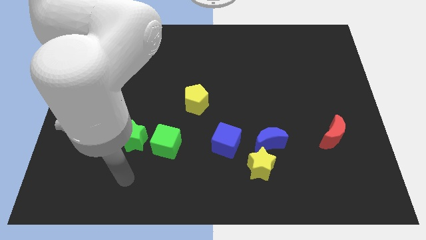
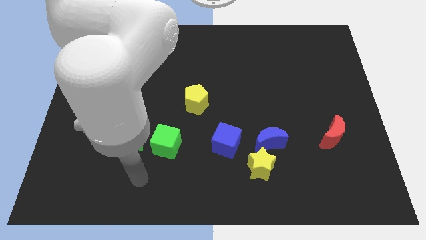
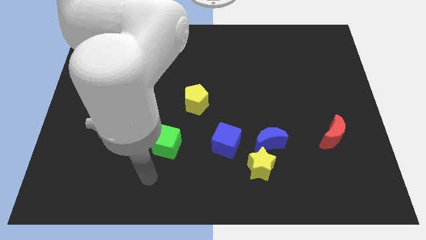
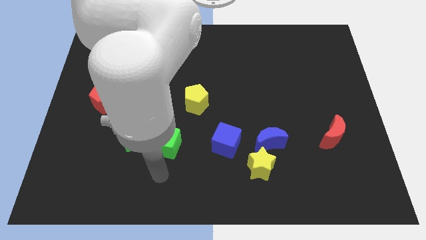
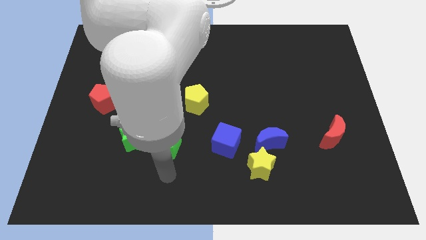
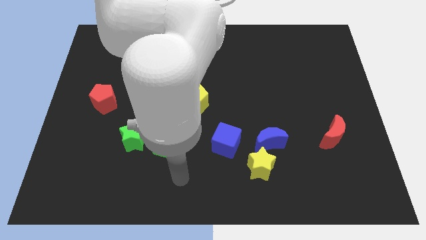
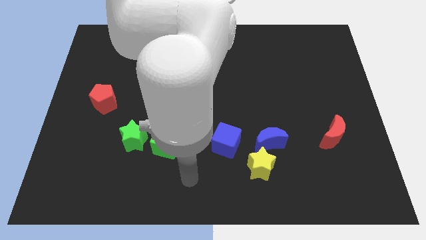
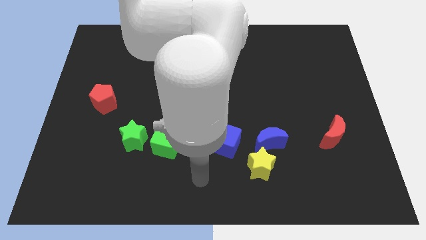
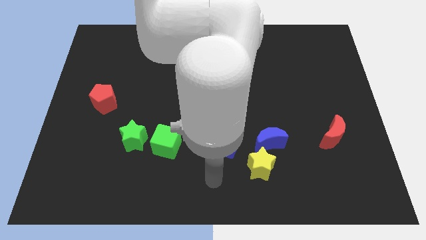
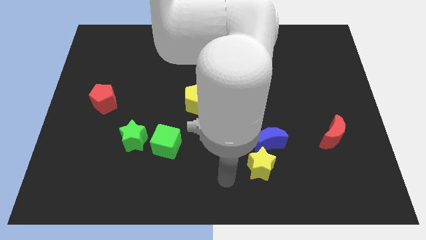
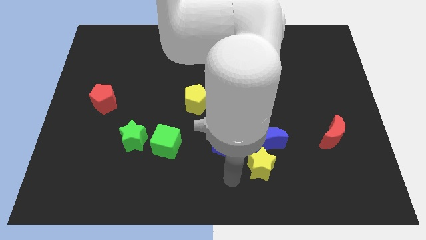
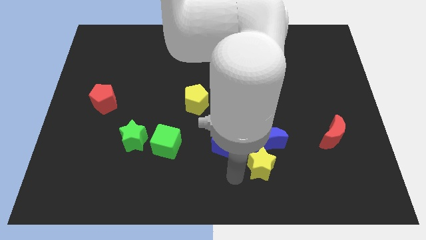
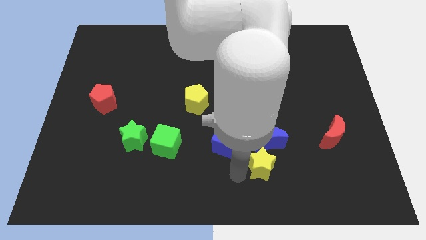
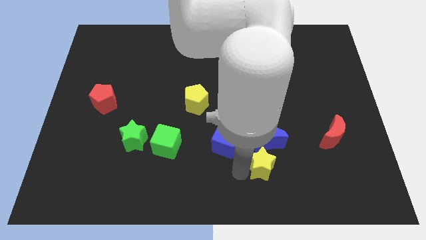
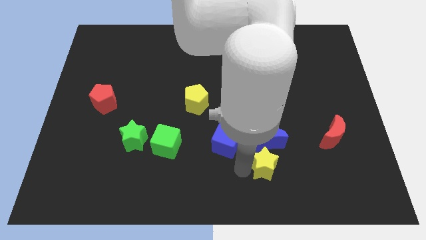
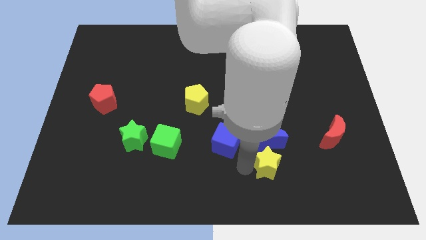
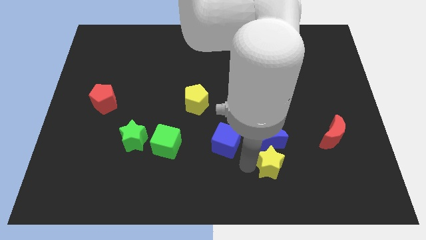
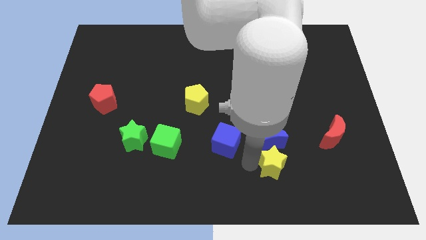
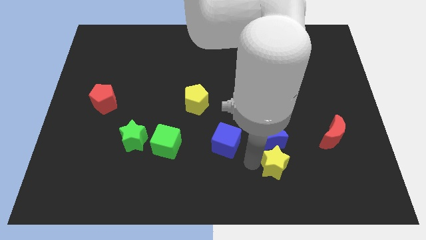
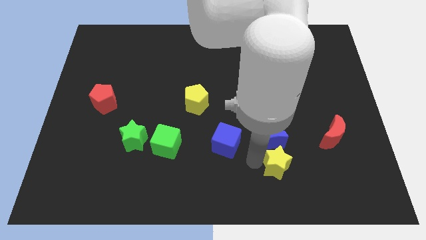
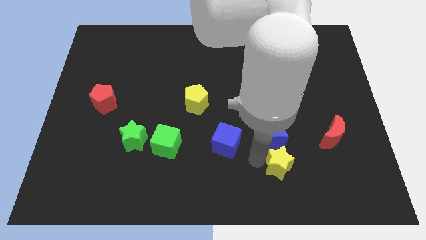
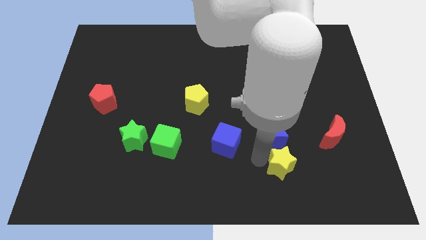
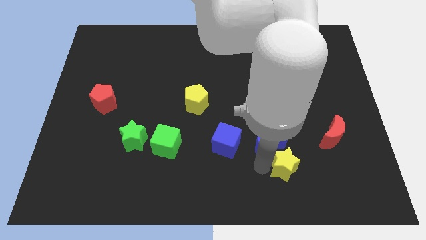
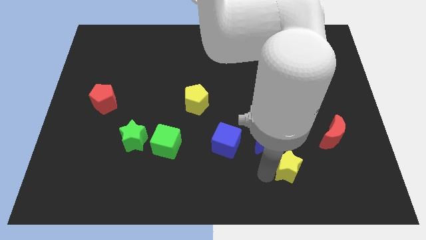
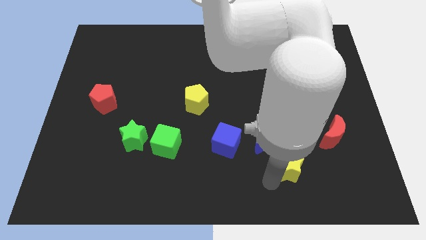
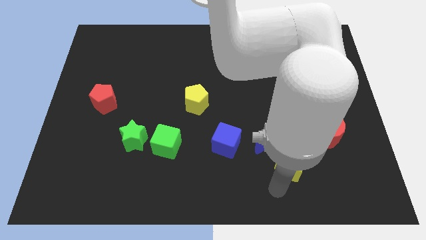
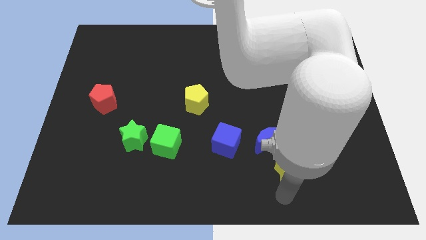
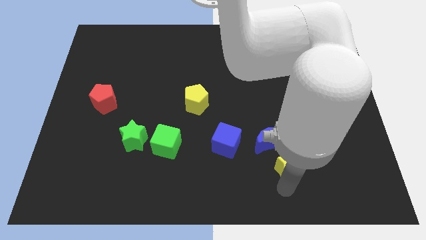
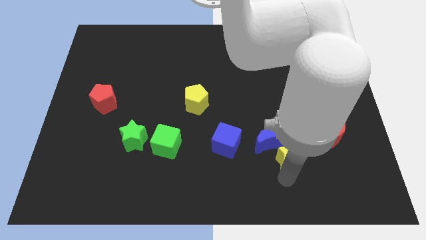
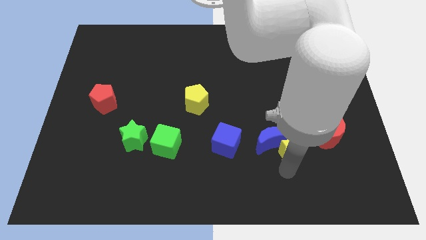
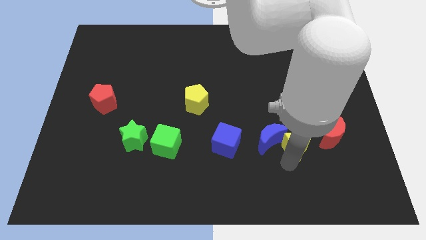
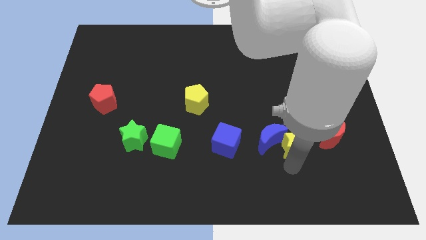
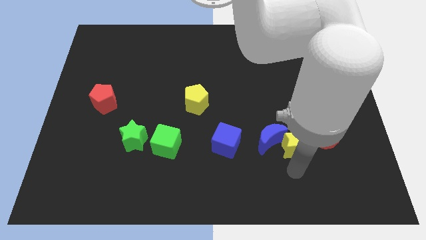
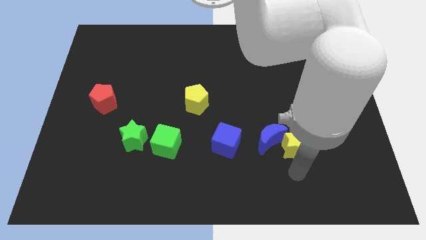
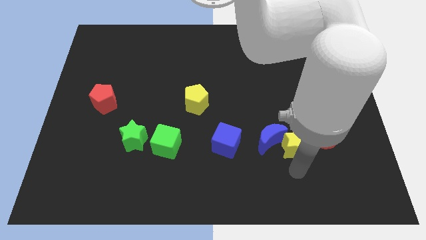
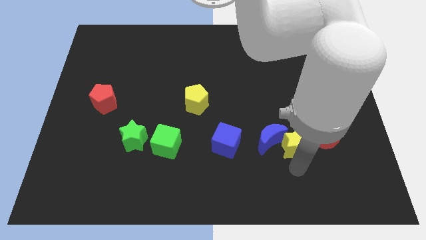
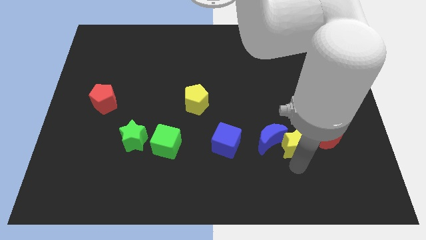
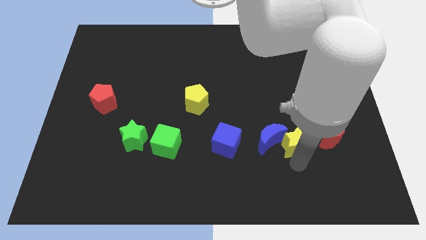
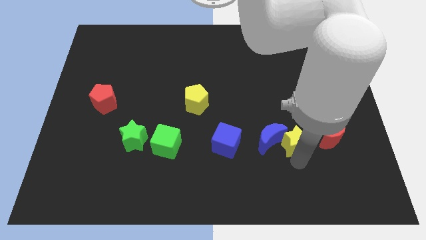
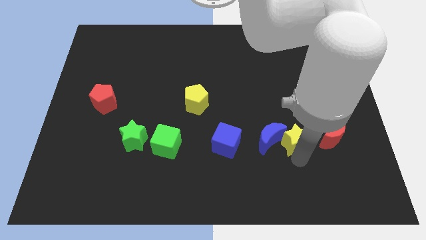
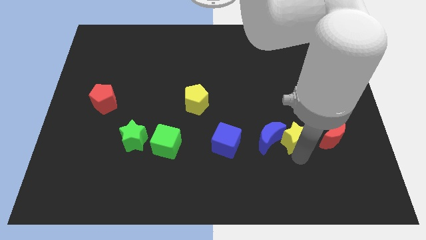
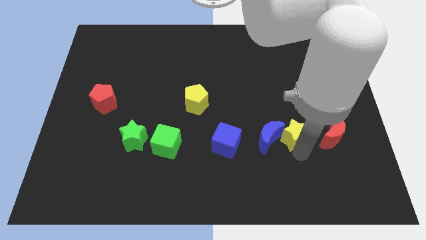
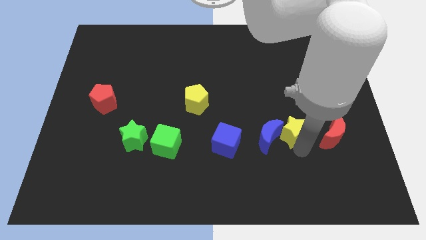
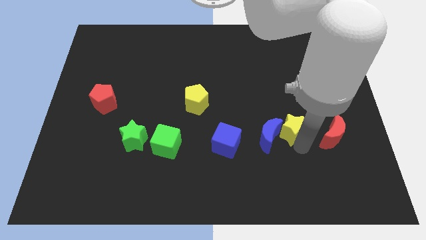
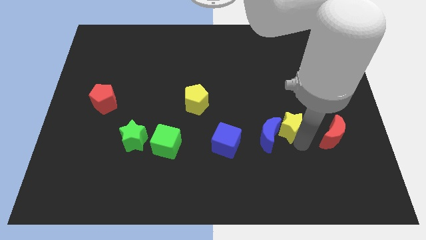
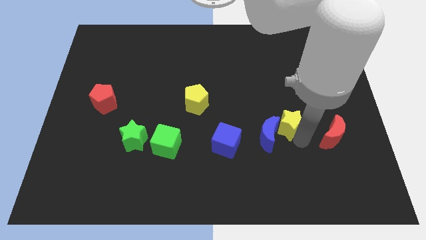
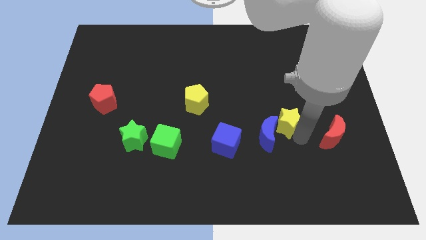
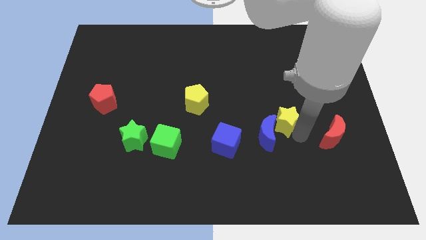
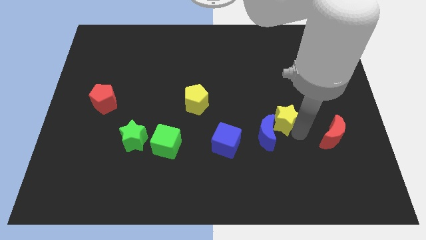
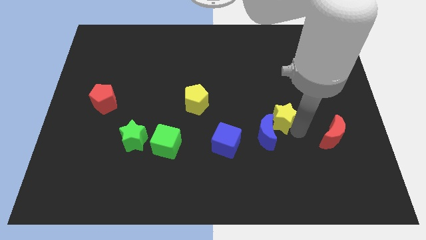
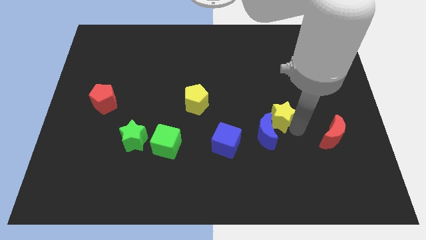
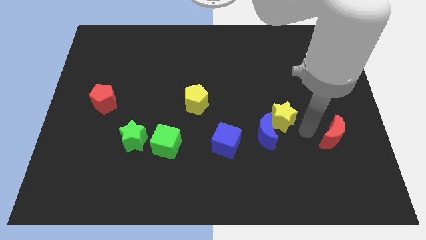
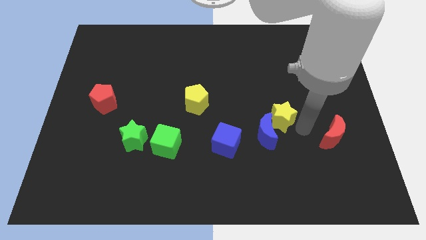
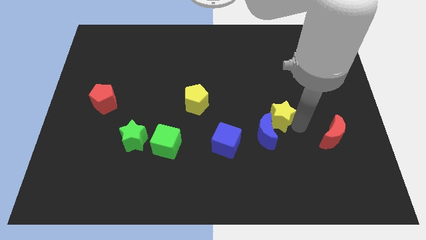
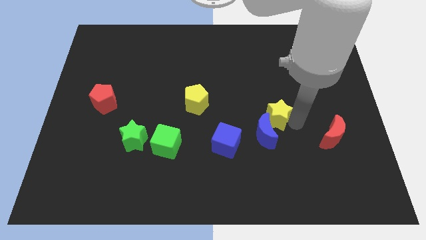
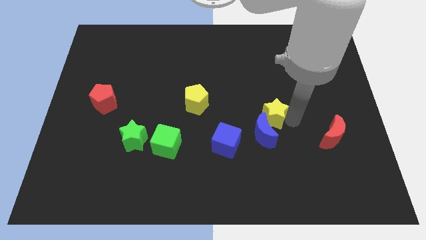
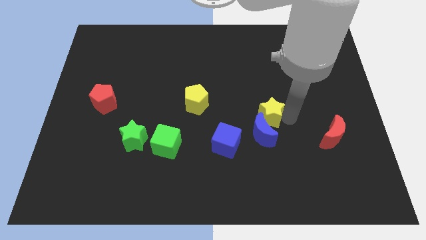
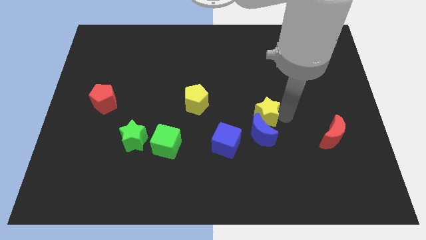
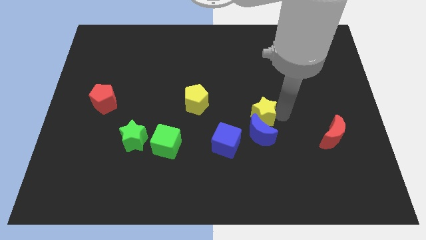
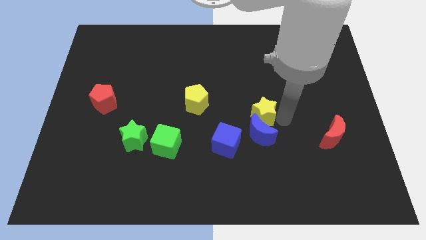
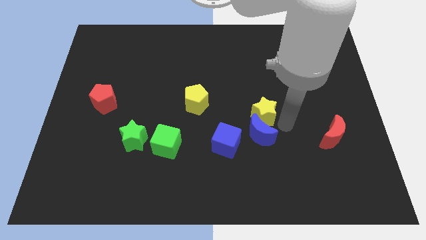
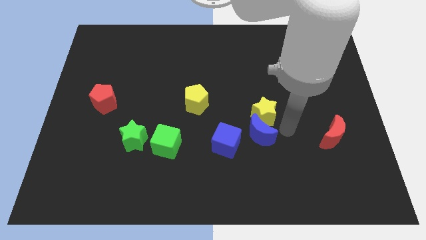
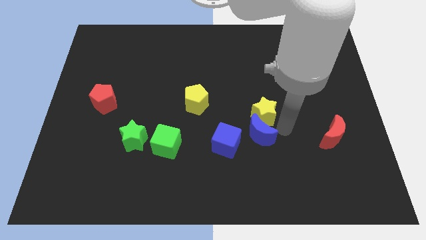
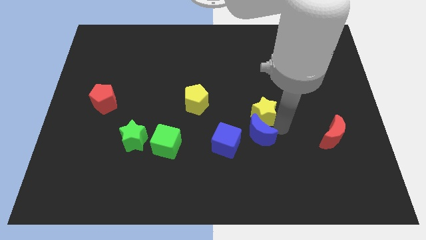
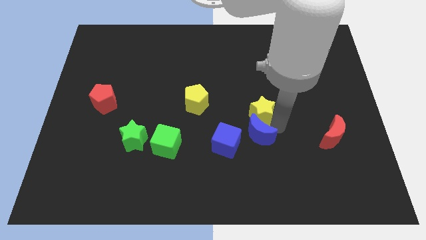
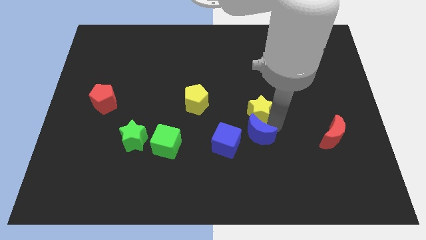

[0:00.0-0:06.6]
move the yellow star to the right of the yellow pentagon

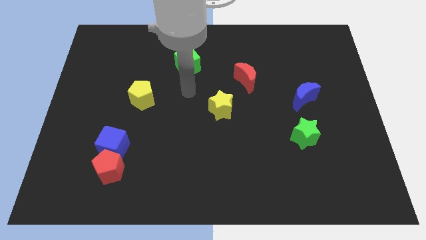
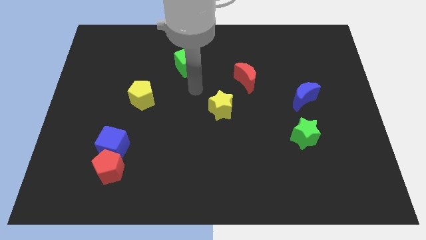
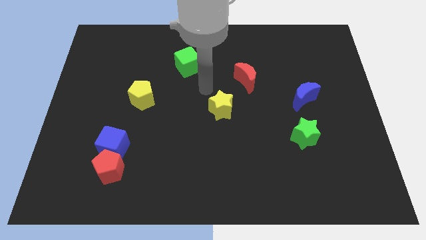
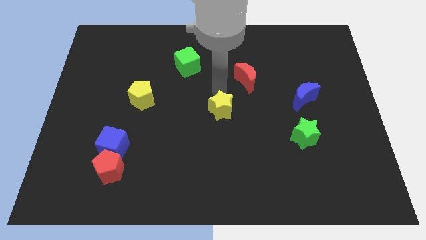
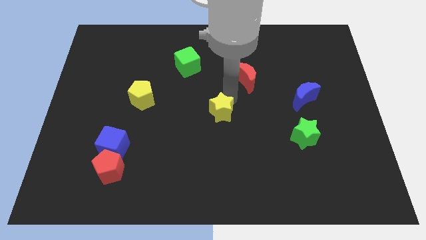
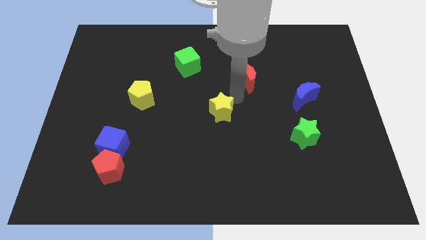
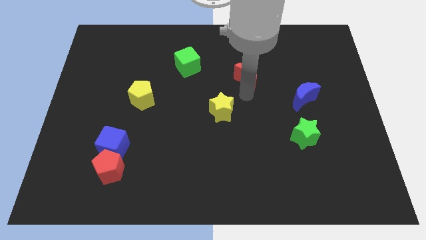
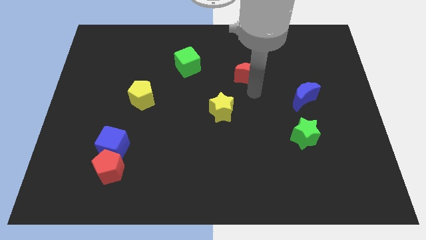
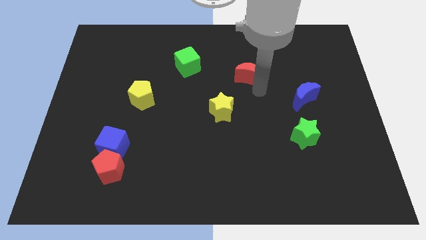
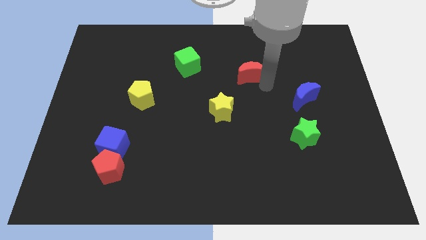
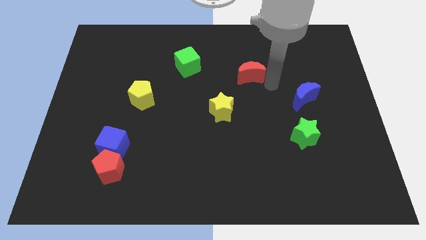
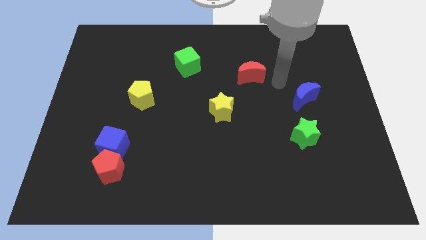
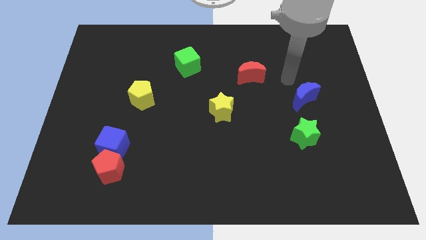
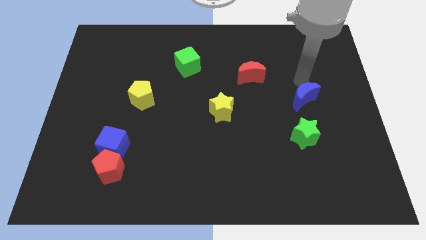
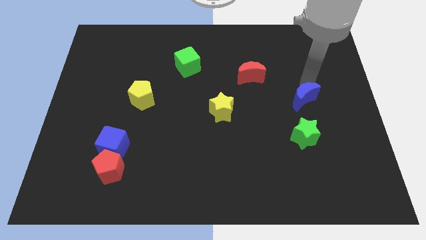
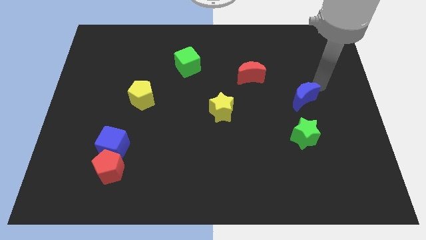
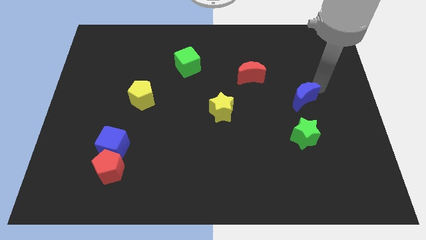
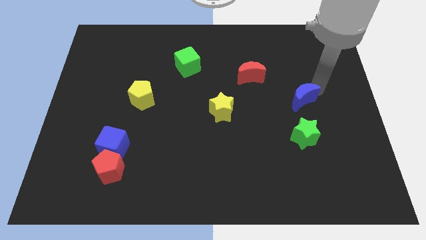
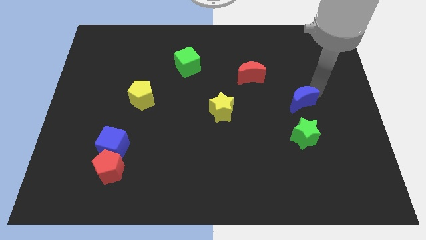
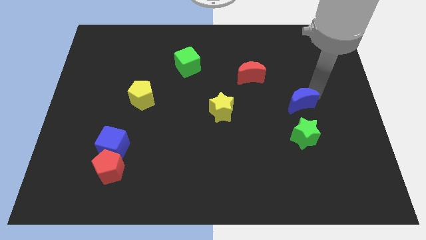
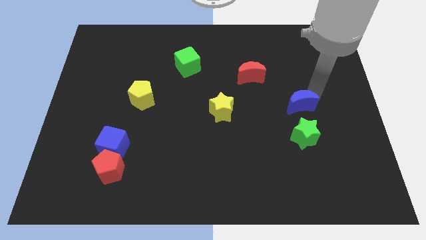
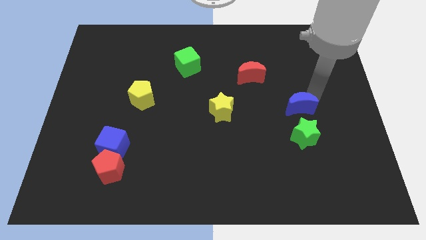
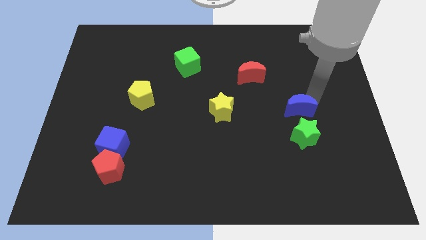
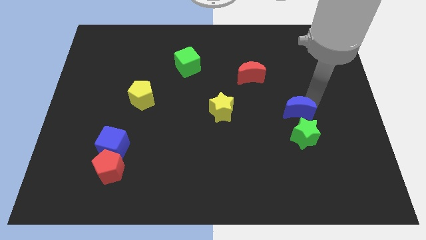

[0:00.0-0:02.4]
slide the blue moon diagonally up and to the left of the green star
